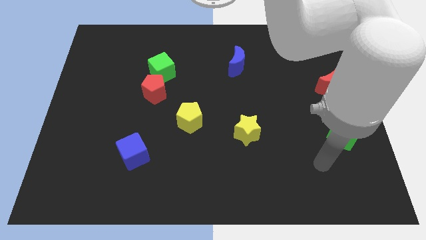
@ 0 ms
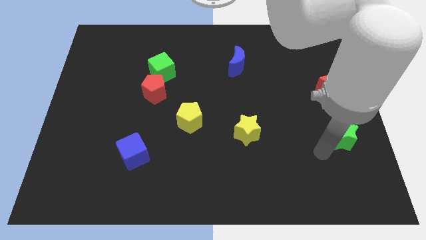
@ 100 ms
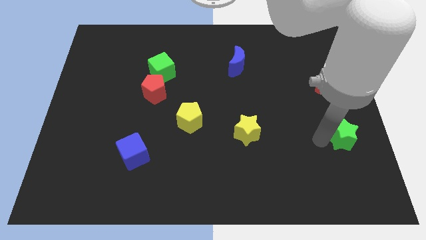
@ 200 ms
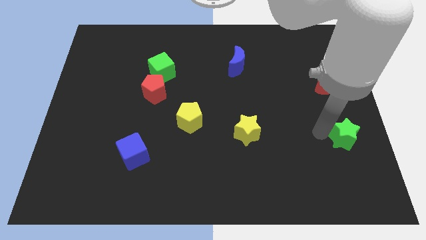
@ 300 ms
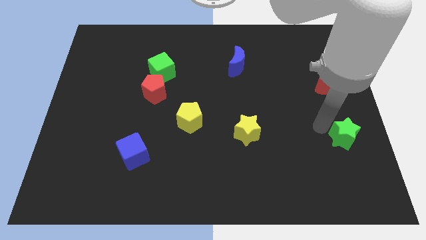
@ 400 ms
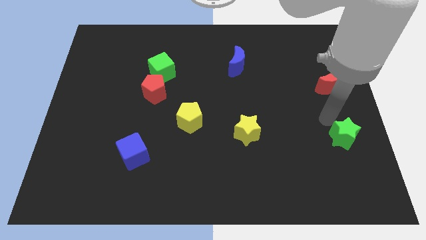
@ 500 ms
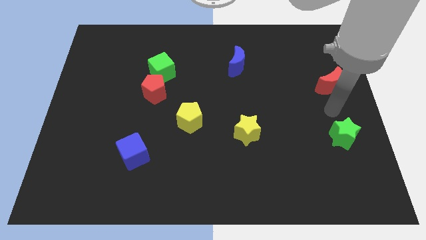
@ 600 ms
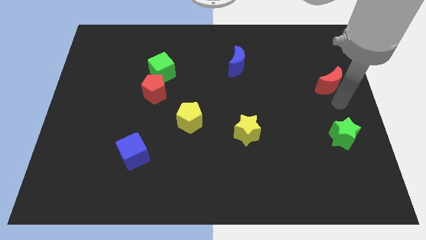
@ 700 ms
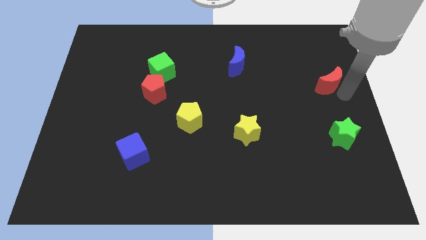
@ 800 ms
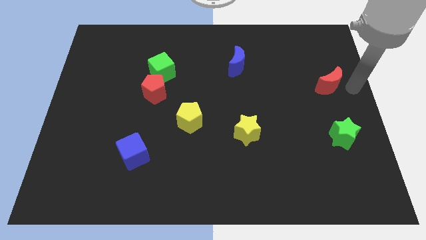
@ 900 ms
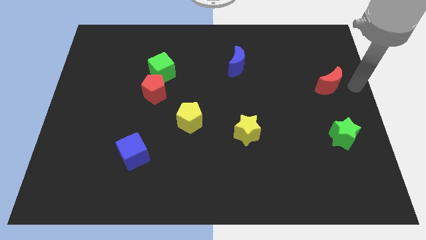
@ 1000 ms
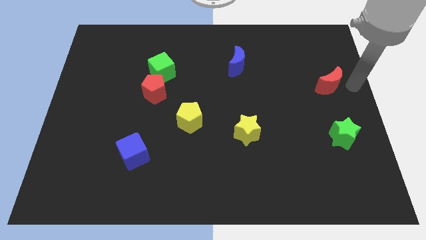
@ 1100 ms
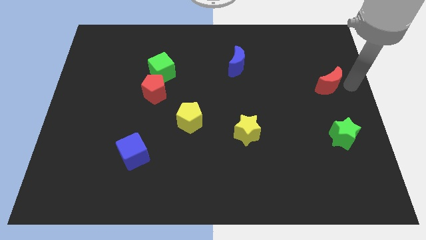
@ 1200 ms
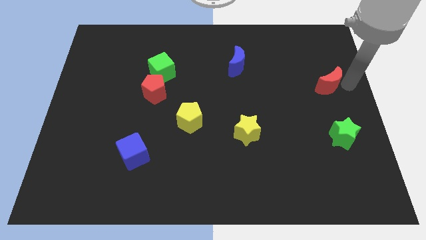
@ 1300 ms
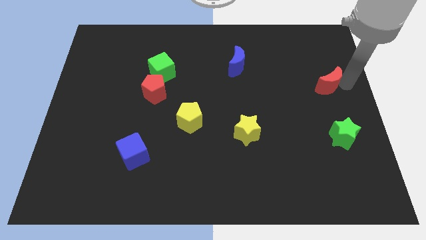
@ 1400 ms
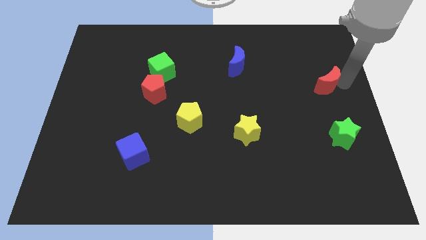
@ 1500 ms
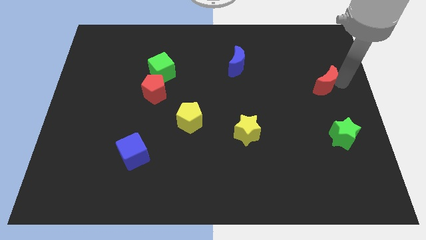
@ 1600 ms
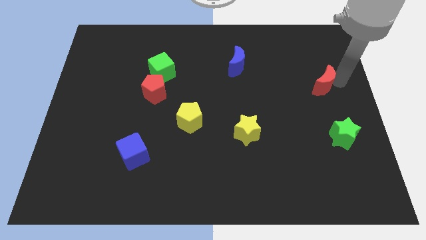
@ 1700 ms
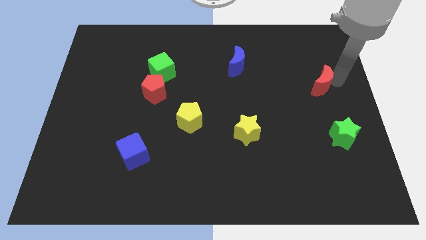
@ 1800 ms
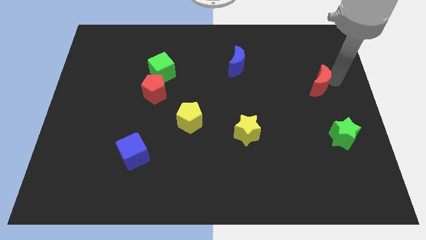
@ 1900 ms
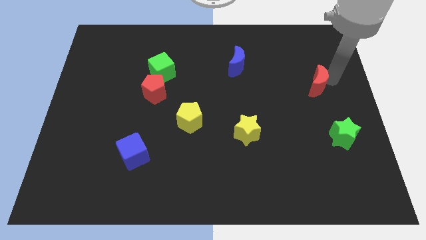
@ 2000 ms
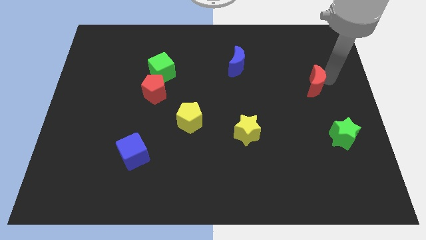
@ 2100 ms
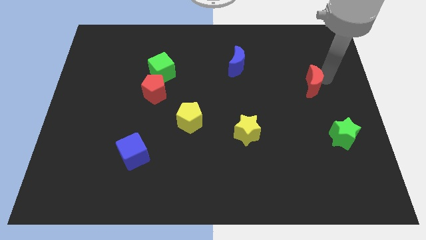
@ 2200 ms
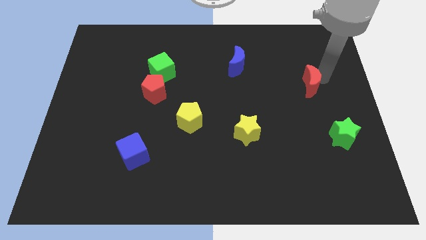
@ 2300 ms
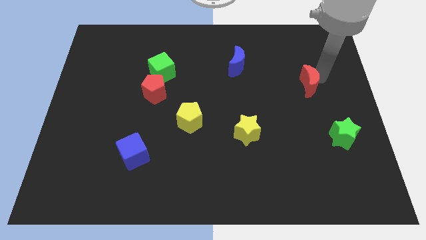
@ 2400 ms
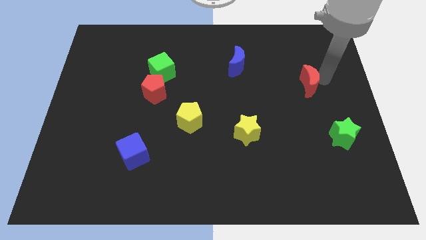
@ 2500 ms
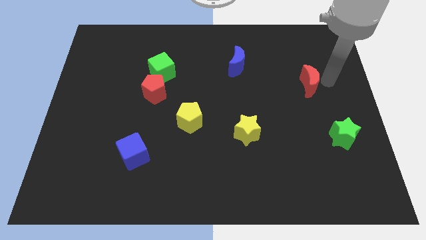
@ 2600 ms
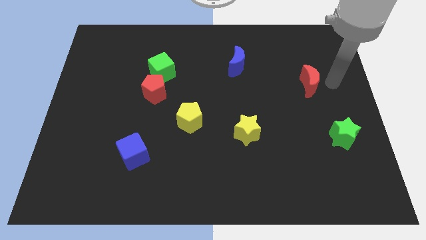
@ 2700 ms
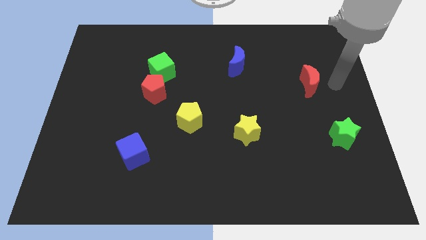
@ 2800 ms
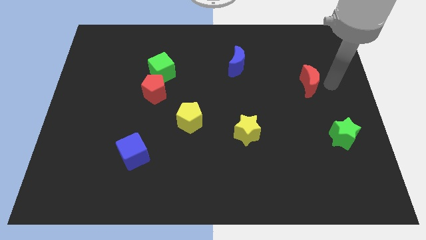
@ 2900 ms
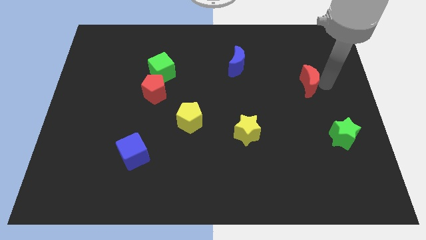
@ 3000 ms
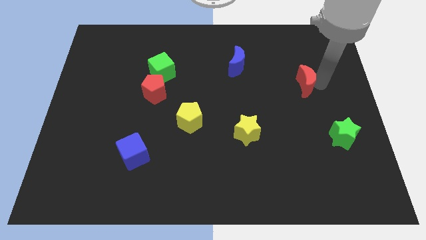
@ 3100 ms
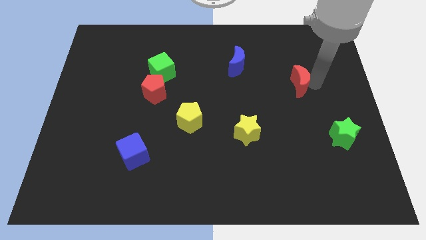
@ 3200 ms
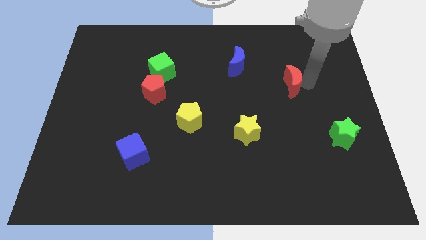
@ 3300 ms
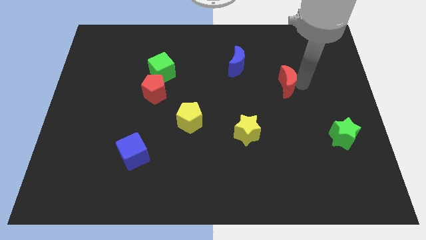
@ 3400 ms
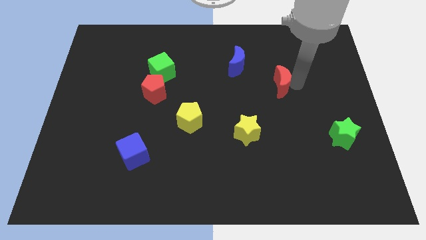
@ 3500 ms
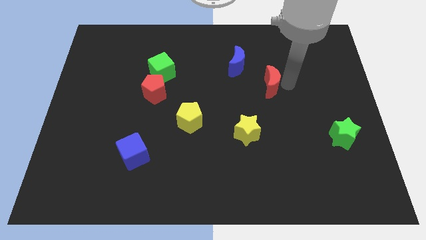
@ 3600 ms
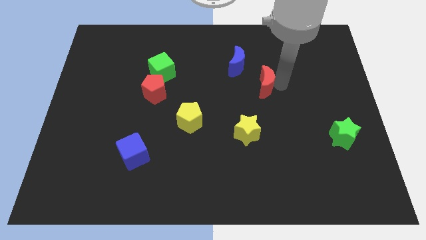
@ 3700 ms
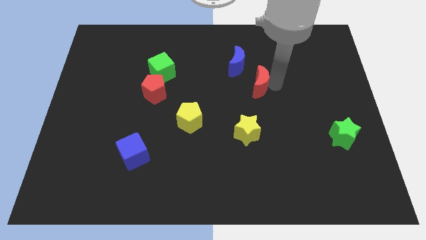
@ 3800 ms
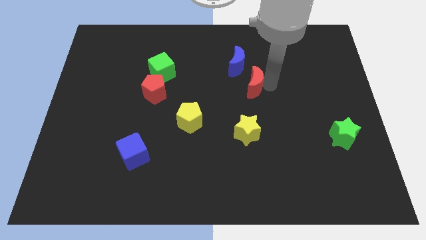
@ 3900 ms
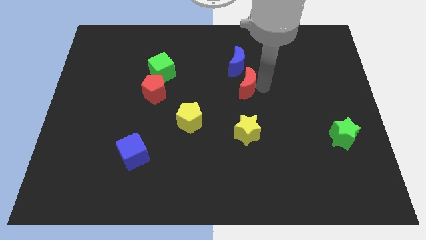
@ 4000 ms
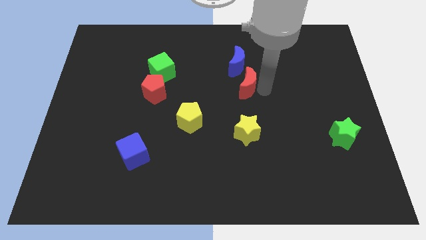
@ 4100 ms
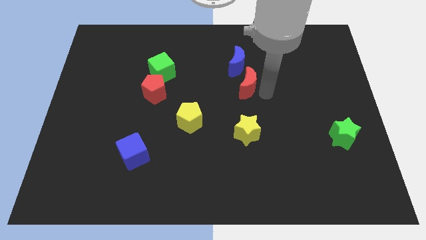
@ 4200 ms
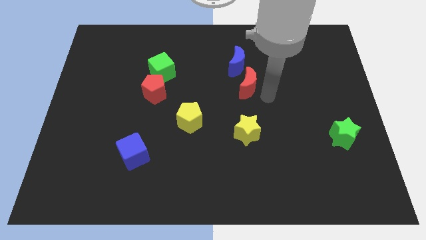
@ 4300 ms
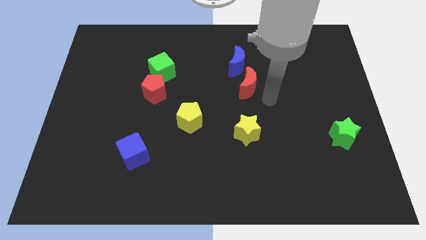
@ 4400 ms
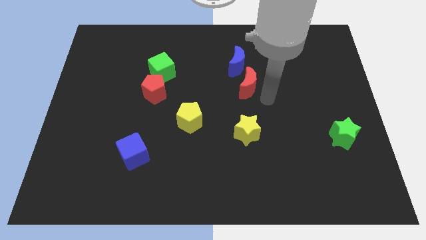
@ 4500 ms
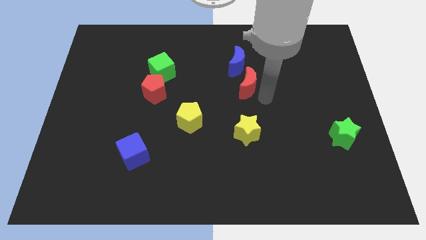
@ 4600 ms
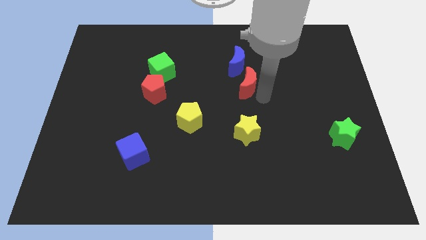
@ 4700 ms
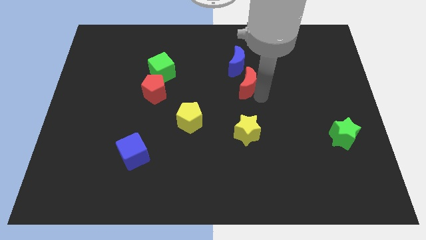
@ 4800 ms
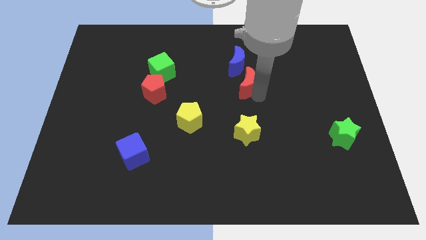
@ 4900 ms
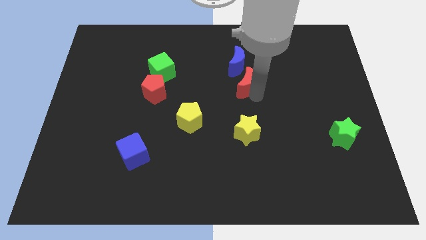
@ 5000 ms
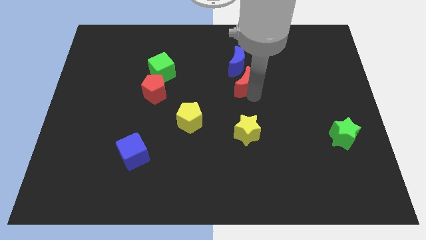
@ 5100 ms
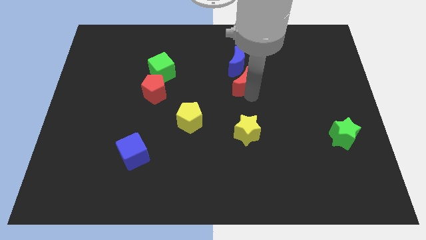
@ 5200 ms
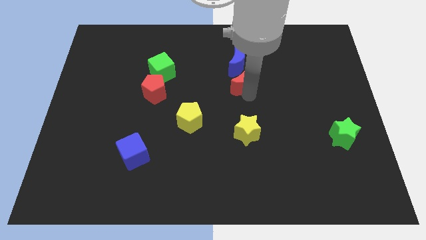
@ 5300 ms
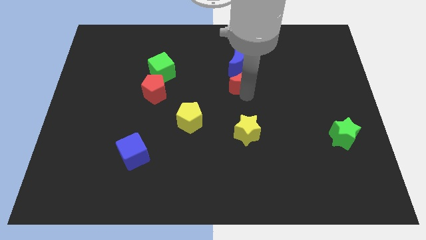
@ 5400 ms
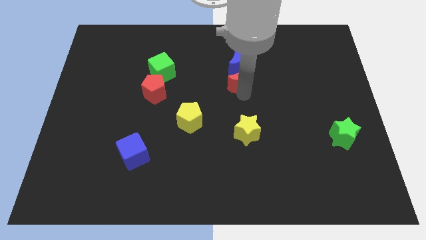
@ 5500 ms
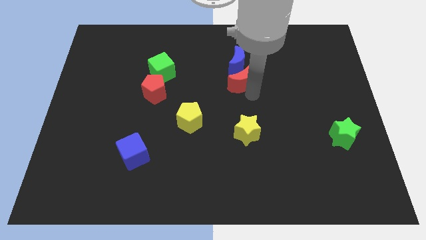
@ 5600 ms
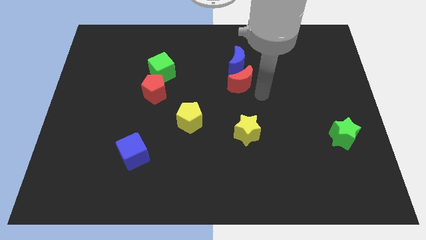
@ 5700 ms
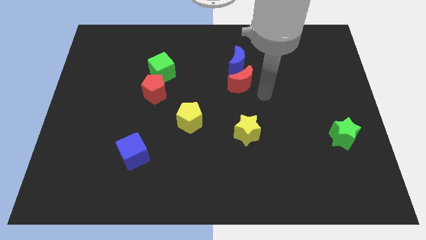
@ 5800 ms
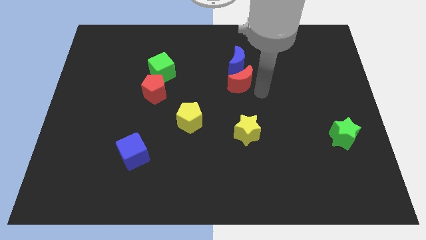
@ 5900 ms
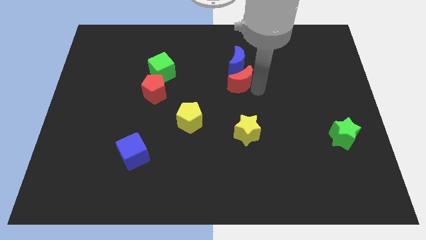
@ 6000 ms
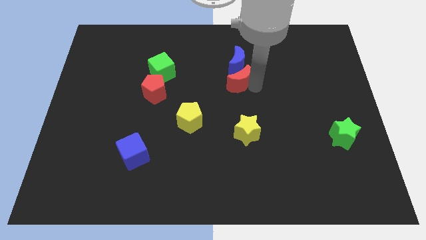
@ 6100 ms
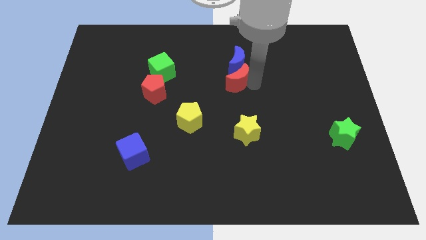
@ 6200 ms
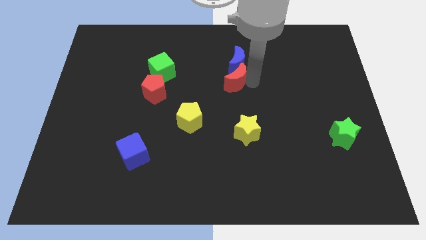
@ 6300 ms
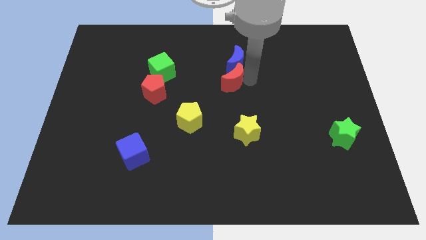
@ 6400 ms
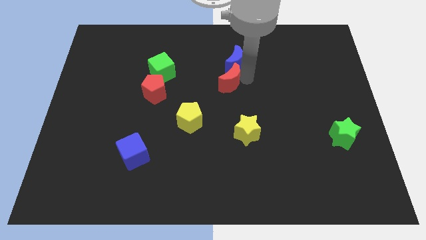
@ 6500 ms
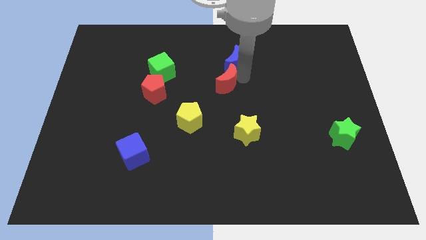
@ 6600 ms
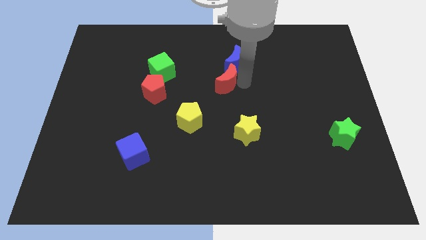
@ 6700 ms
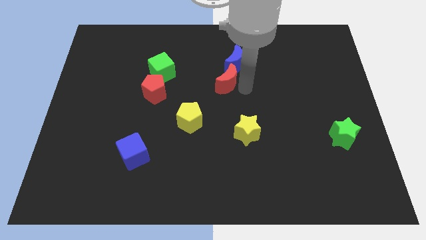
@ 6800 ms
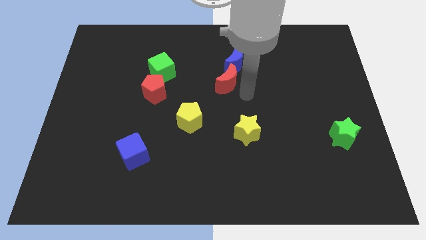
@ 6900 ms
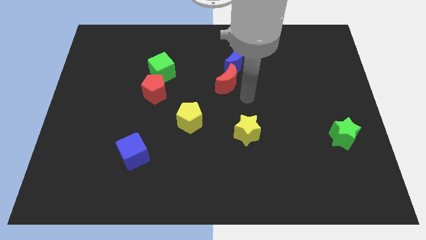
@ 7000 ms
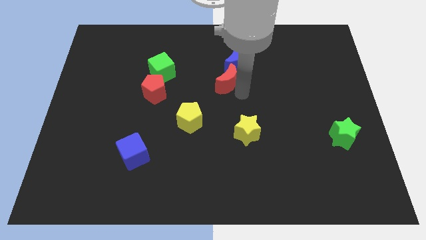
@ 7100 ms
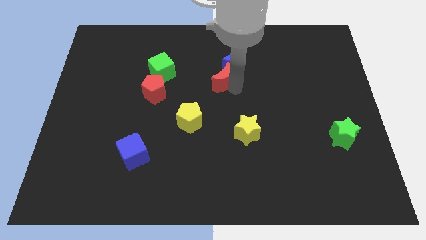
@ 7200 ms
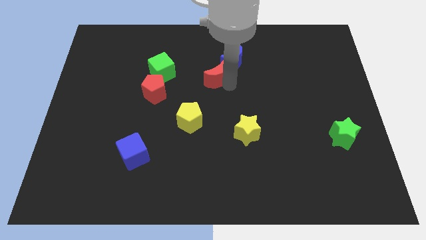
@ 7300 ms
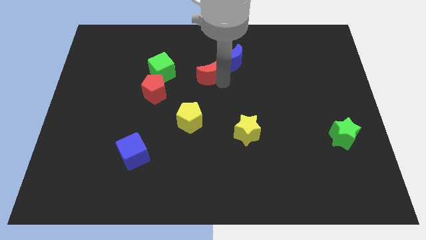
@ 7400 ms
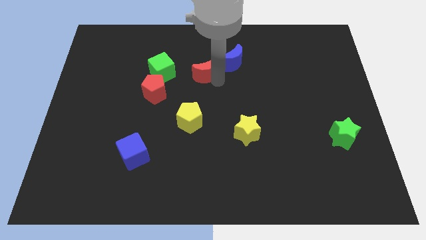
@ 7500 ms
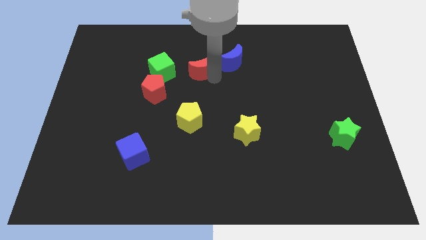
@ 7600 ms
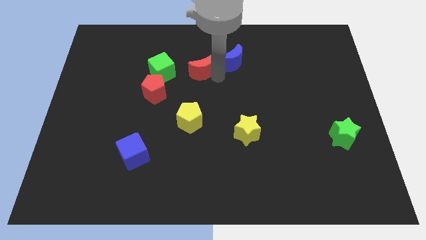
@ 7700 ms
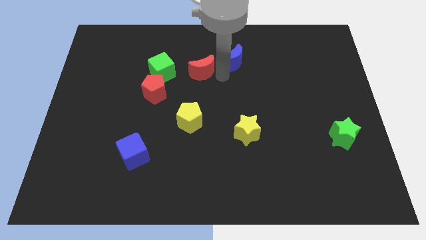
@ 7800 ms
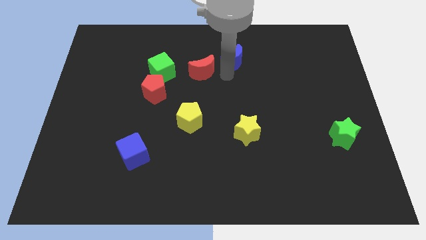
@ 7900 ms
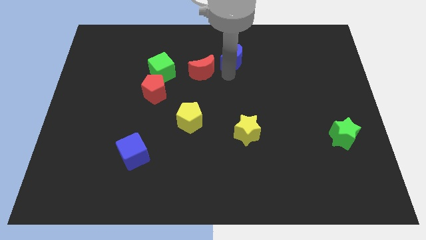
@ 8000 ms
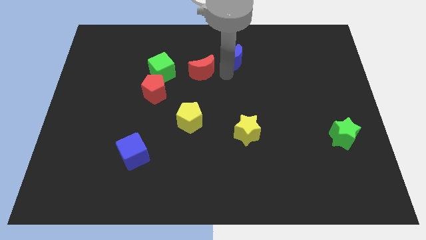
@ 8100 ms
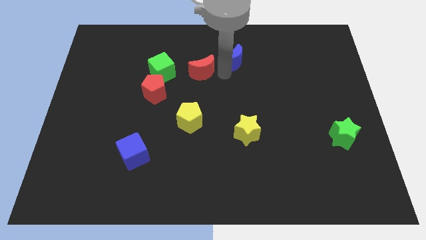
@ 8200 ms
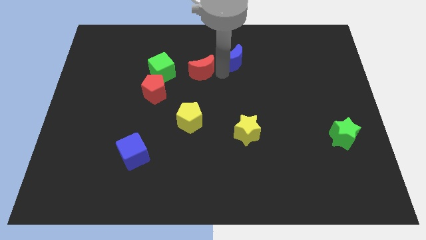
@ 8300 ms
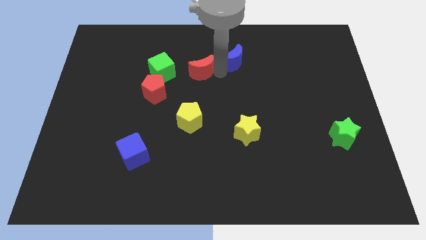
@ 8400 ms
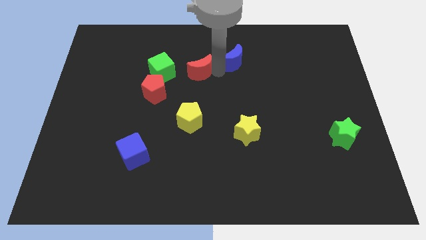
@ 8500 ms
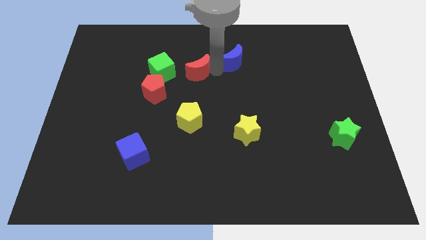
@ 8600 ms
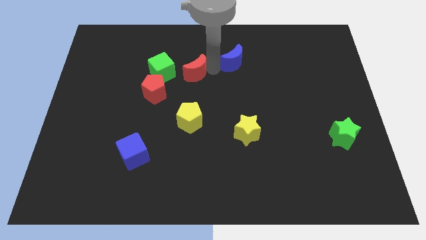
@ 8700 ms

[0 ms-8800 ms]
move the red moon to the top right side of the red pentagon
